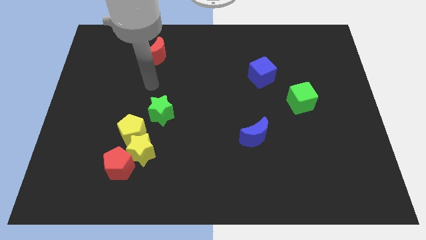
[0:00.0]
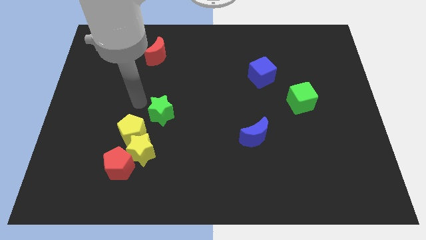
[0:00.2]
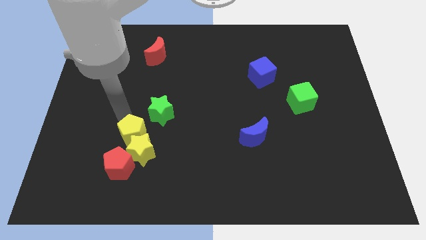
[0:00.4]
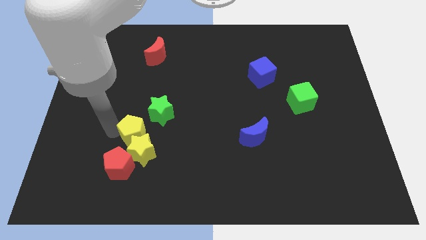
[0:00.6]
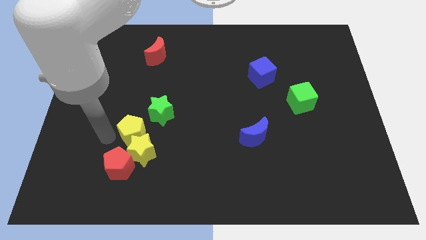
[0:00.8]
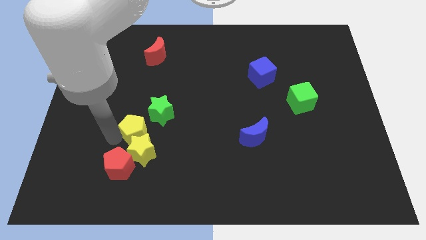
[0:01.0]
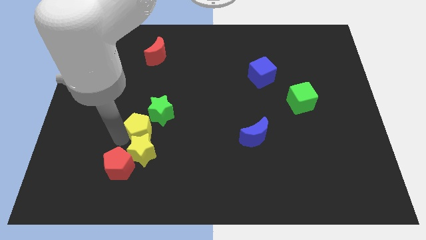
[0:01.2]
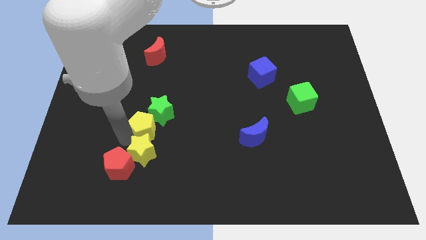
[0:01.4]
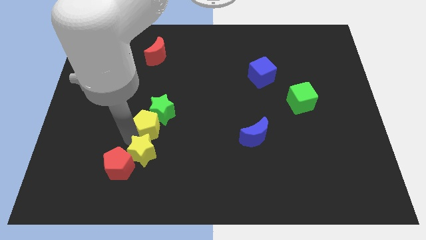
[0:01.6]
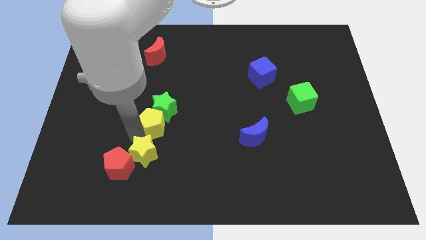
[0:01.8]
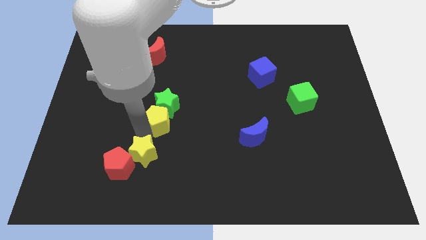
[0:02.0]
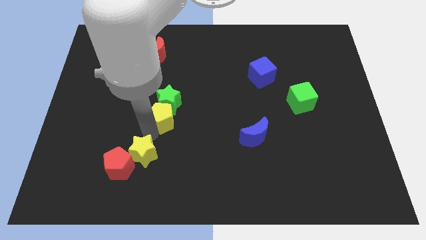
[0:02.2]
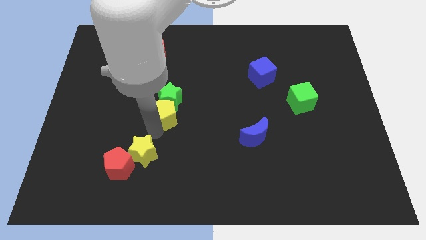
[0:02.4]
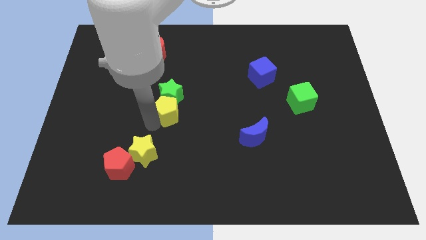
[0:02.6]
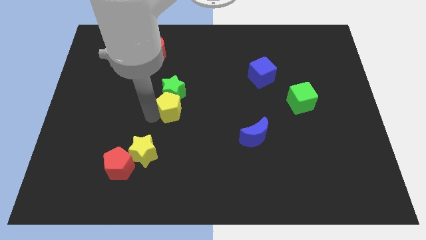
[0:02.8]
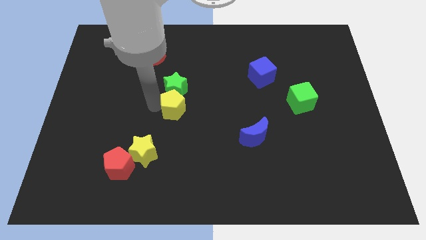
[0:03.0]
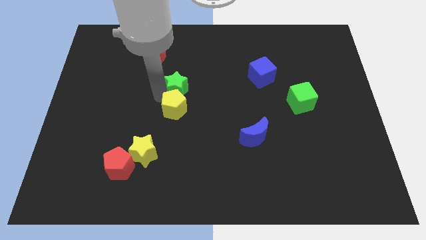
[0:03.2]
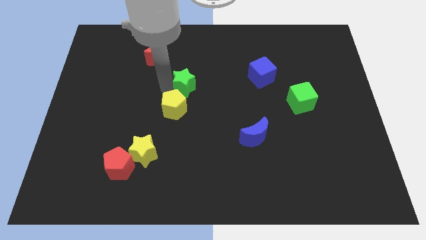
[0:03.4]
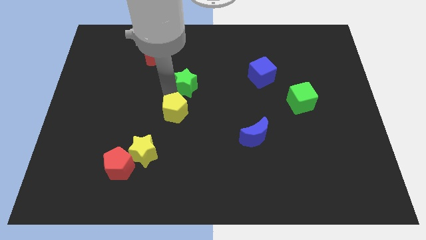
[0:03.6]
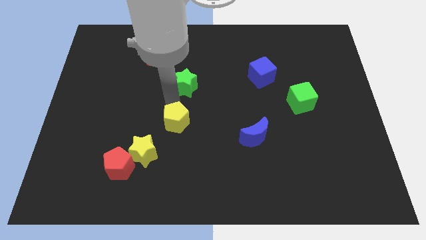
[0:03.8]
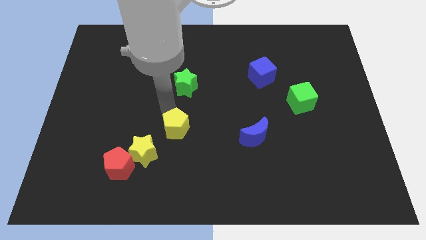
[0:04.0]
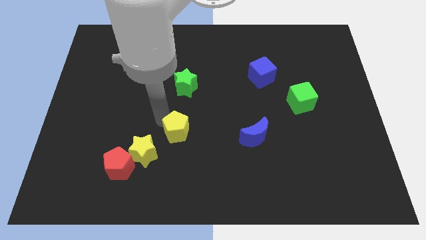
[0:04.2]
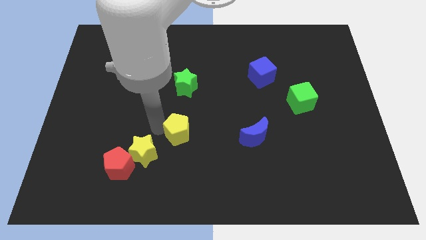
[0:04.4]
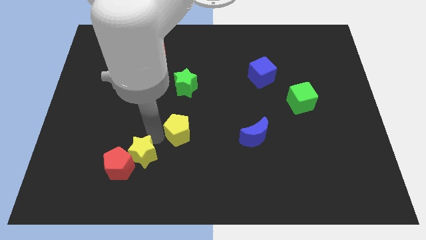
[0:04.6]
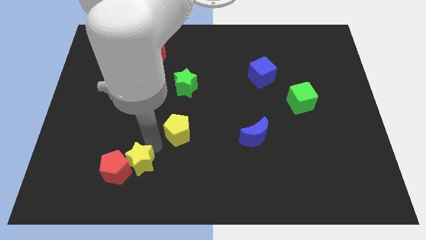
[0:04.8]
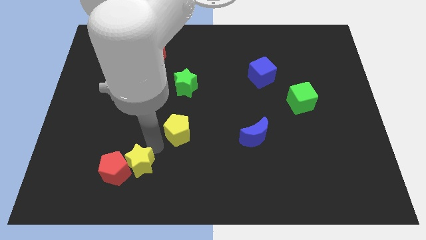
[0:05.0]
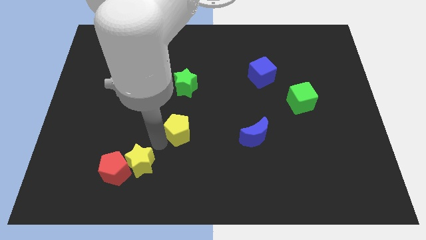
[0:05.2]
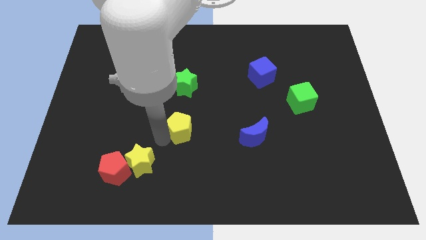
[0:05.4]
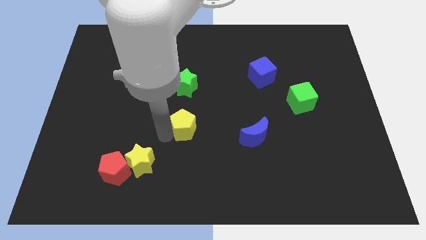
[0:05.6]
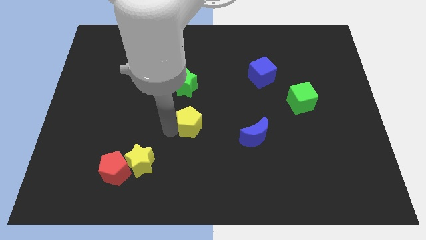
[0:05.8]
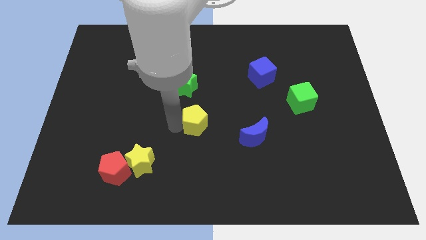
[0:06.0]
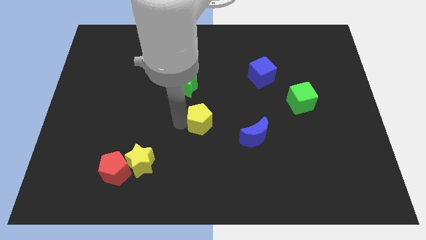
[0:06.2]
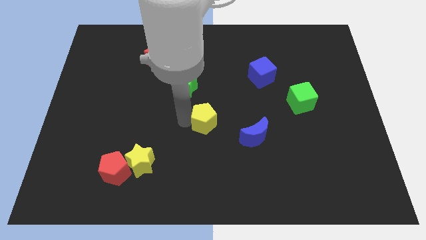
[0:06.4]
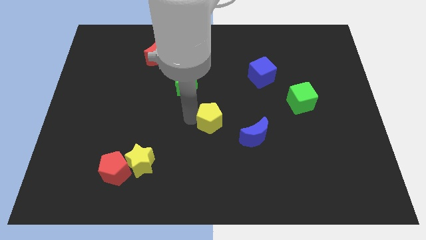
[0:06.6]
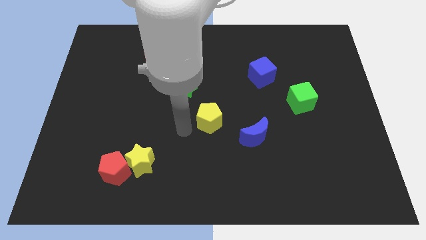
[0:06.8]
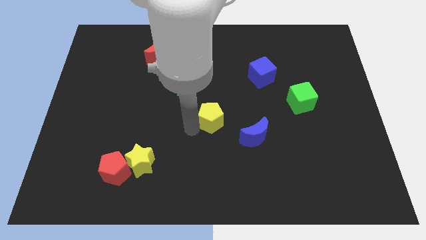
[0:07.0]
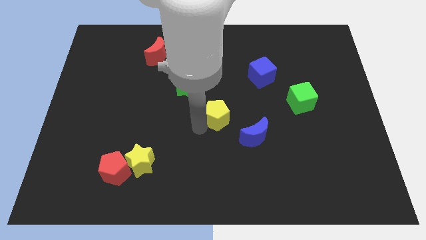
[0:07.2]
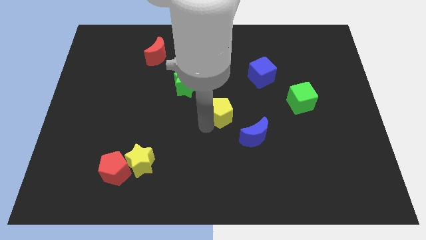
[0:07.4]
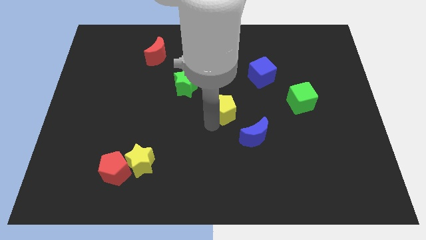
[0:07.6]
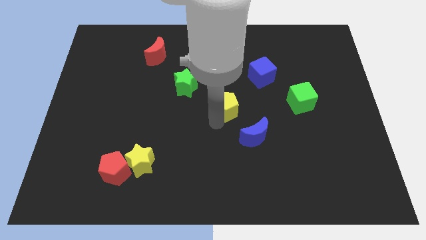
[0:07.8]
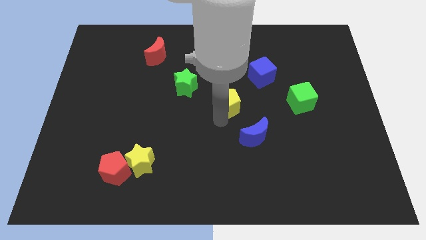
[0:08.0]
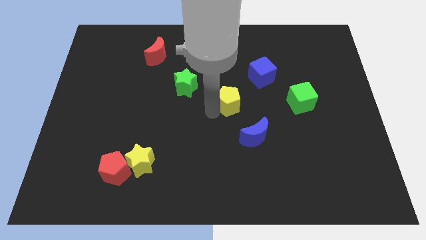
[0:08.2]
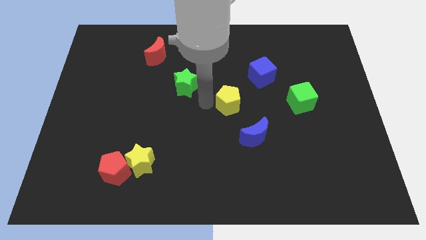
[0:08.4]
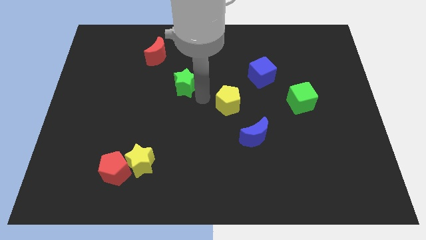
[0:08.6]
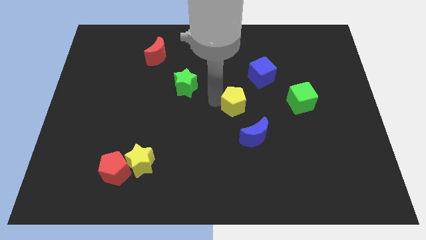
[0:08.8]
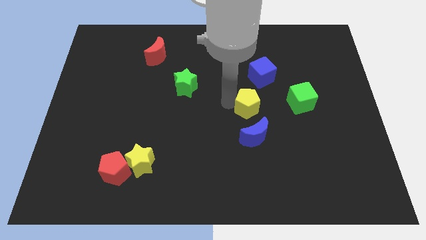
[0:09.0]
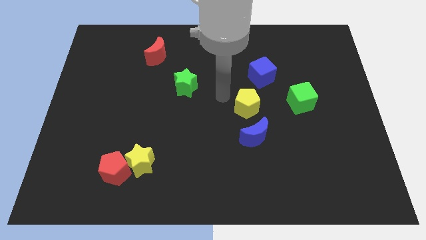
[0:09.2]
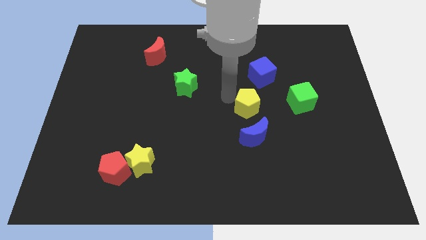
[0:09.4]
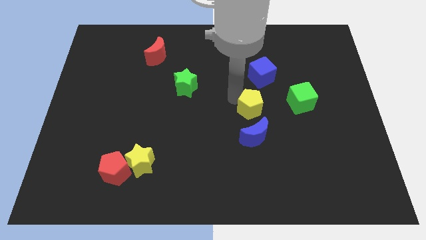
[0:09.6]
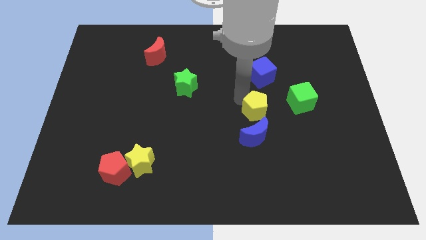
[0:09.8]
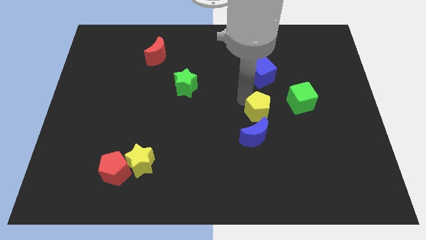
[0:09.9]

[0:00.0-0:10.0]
move the yellow pentagon diagonally up and to the right of the blue moon

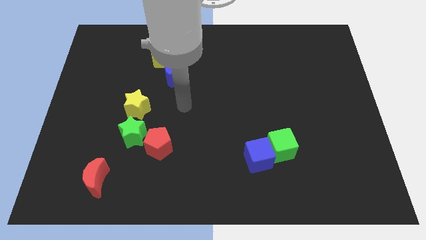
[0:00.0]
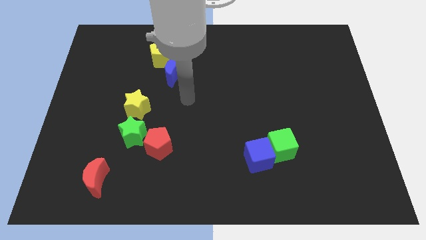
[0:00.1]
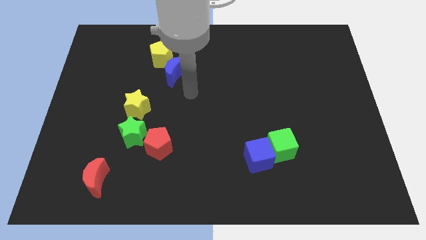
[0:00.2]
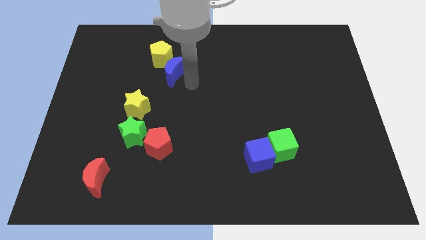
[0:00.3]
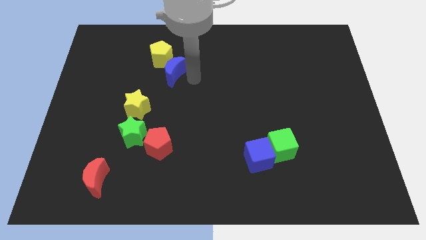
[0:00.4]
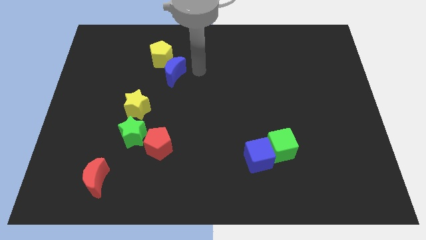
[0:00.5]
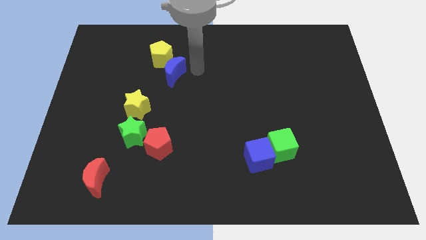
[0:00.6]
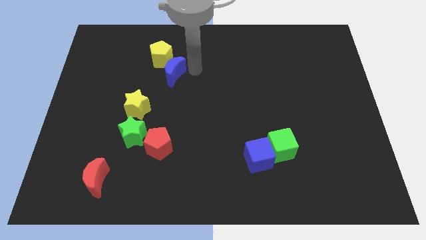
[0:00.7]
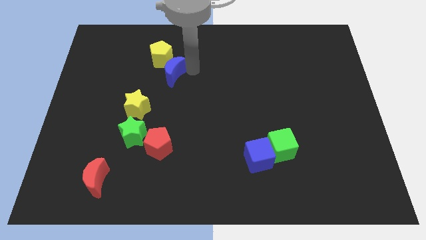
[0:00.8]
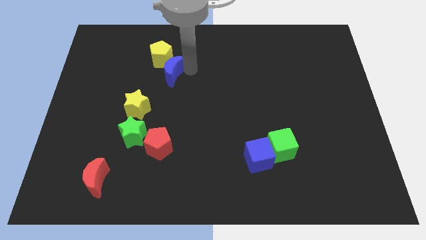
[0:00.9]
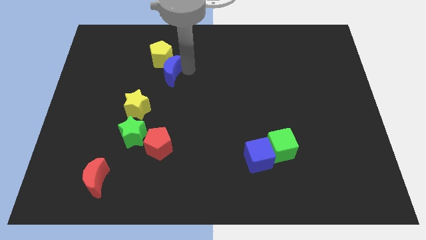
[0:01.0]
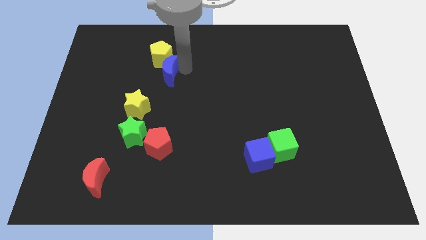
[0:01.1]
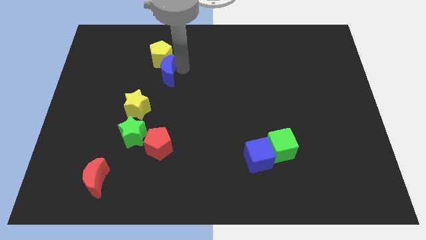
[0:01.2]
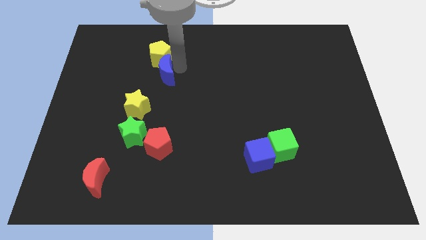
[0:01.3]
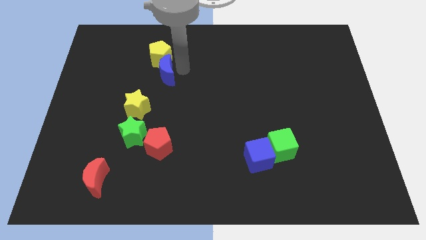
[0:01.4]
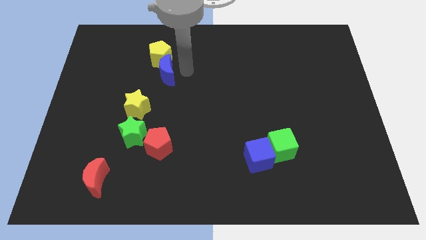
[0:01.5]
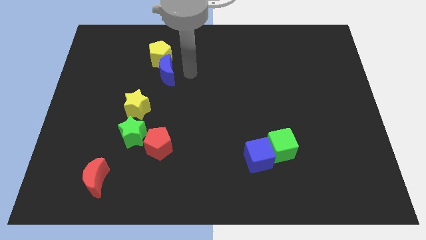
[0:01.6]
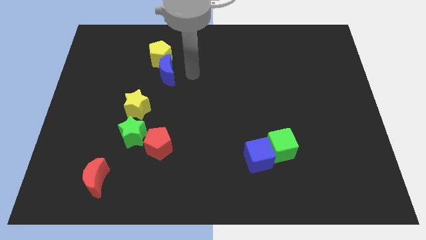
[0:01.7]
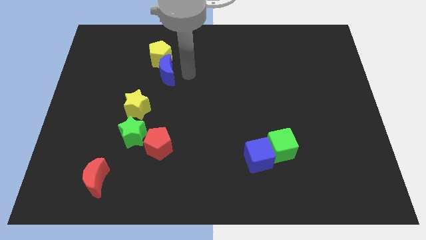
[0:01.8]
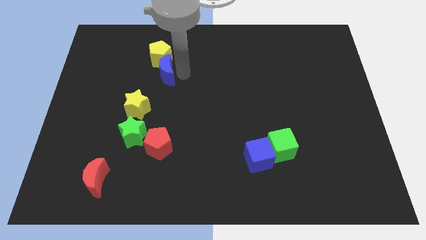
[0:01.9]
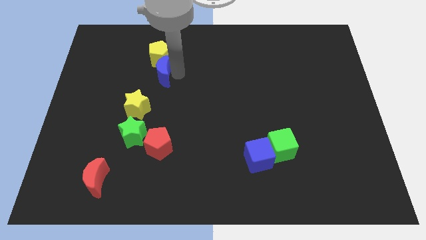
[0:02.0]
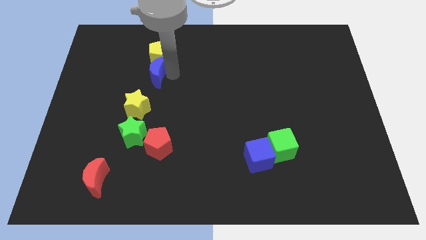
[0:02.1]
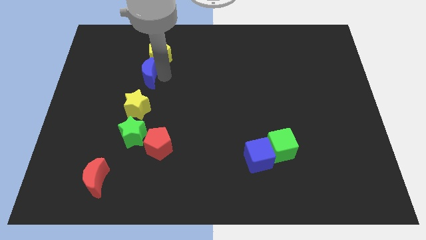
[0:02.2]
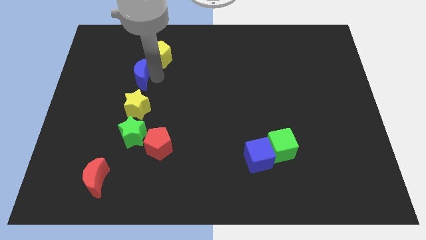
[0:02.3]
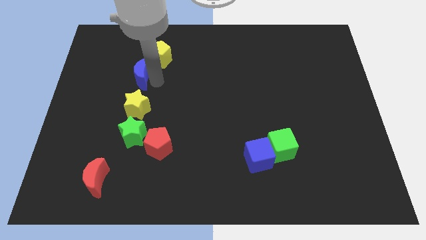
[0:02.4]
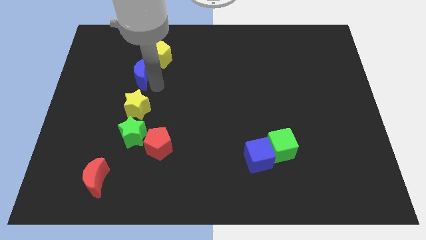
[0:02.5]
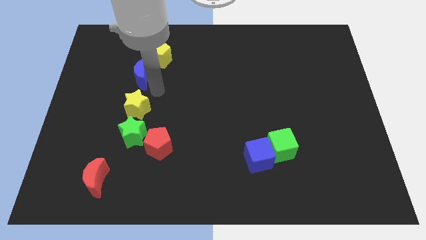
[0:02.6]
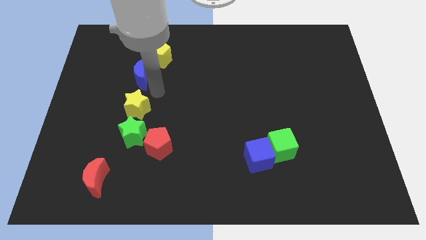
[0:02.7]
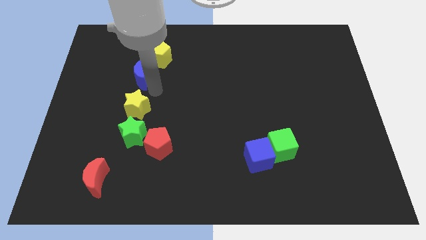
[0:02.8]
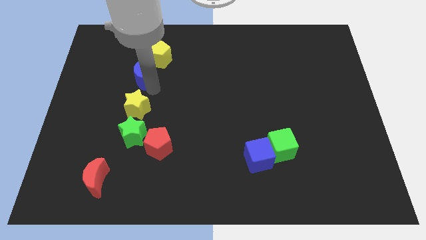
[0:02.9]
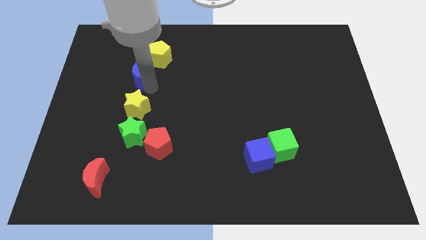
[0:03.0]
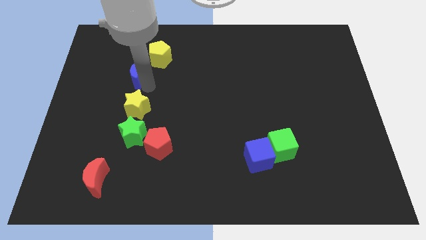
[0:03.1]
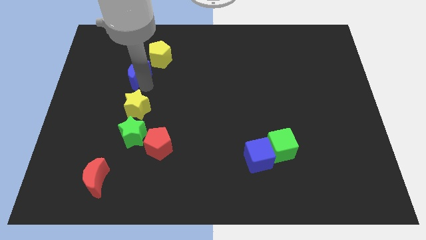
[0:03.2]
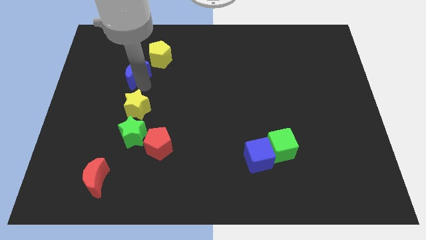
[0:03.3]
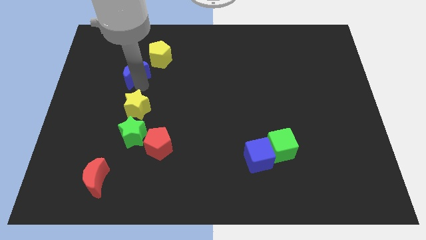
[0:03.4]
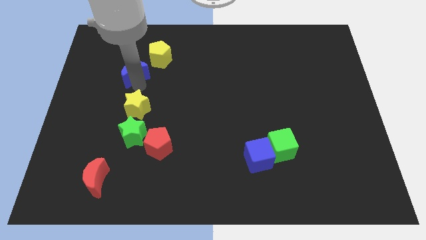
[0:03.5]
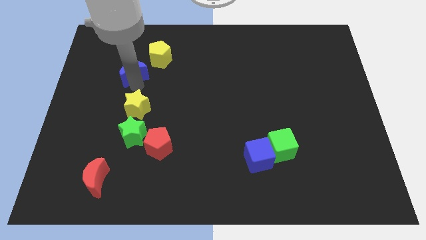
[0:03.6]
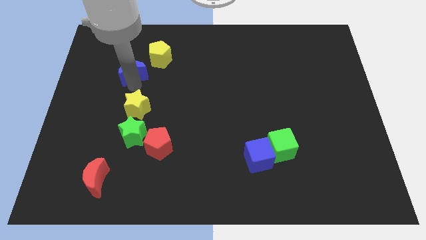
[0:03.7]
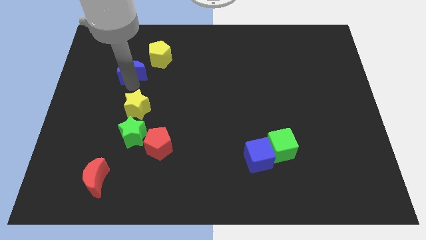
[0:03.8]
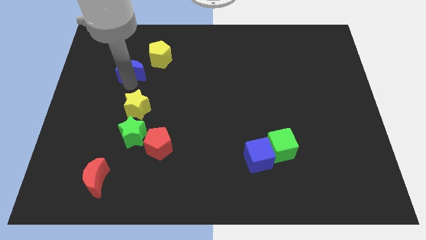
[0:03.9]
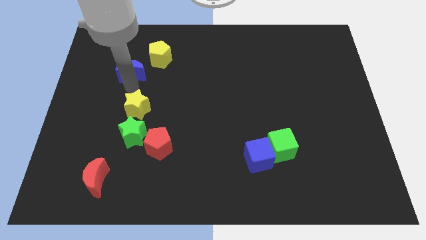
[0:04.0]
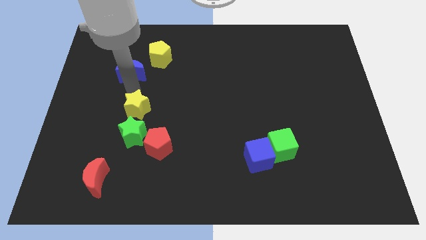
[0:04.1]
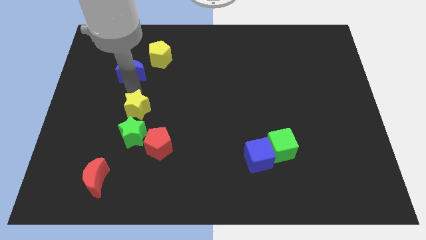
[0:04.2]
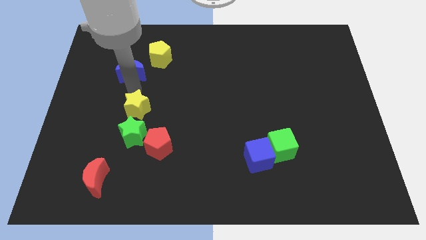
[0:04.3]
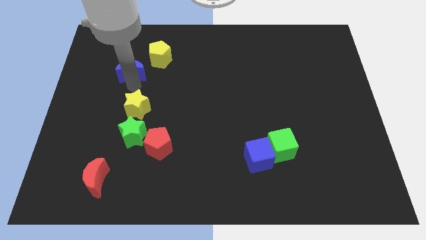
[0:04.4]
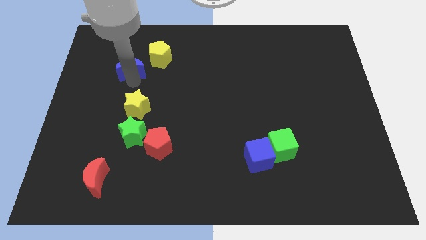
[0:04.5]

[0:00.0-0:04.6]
slide the blue moon left of the yellow pentagon
